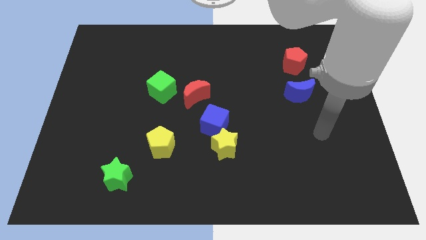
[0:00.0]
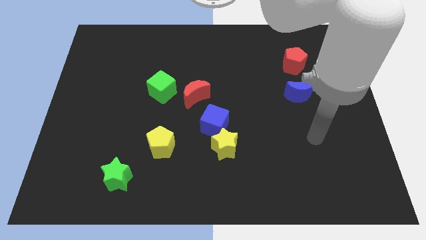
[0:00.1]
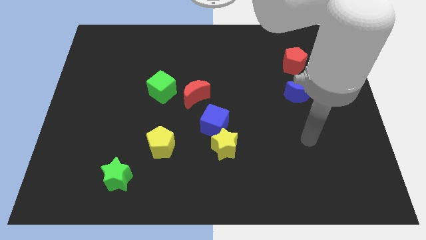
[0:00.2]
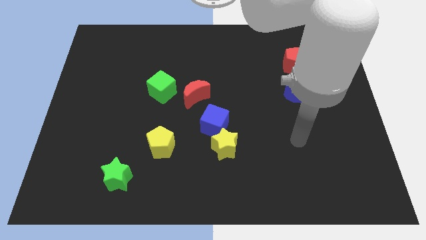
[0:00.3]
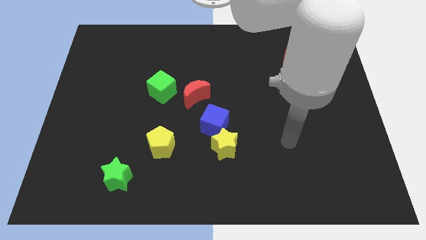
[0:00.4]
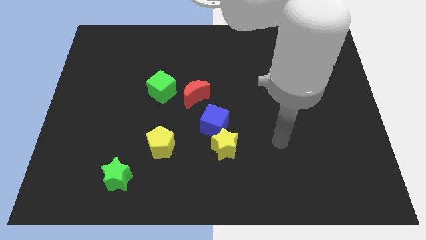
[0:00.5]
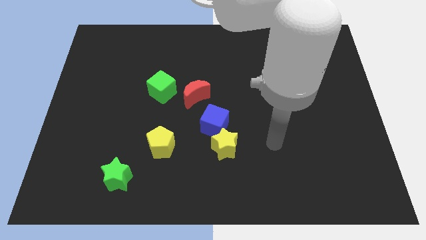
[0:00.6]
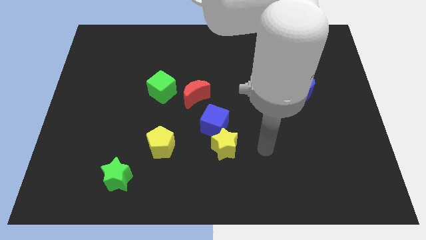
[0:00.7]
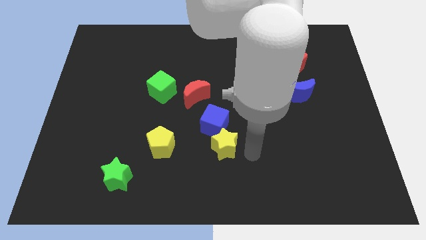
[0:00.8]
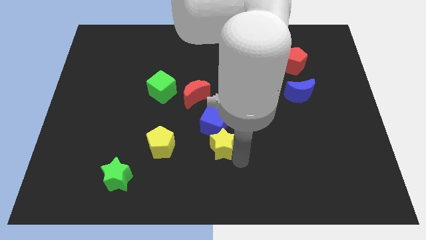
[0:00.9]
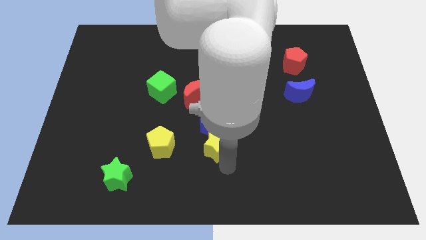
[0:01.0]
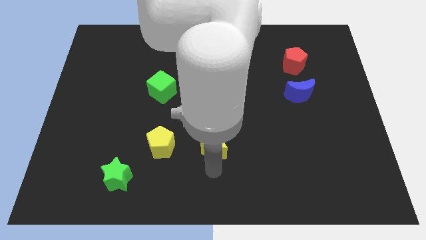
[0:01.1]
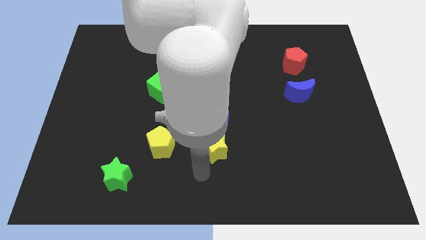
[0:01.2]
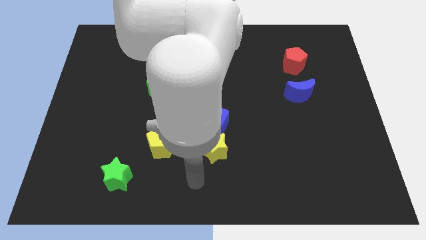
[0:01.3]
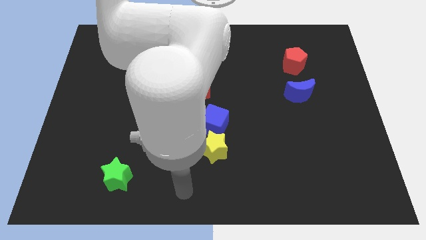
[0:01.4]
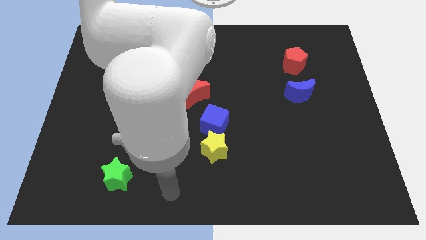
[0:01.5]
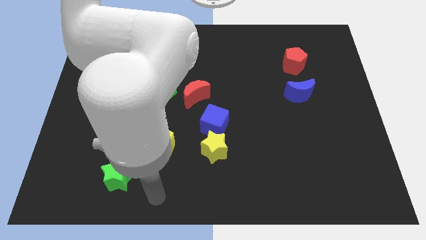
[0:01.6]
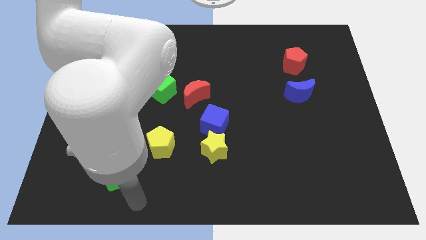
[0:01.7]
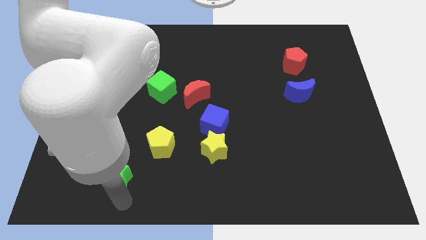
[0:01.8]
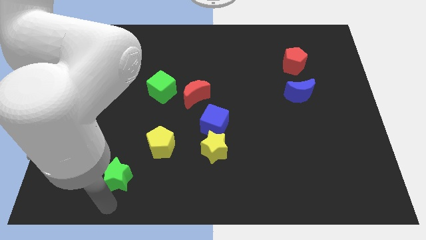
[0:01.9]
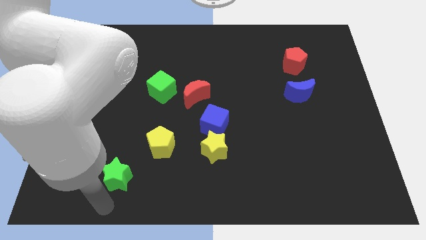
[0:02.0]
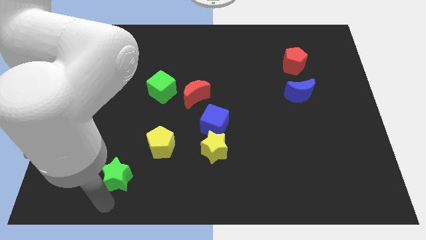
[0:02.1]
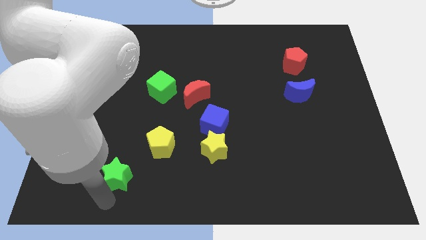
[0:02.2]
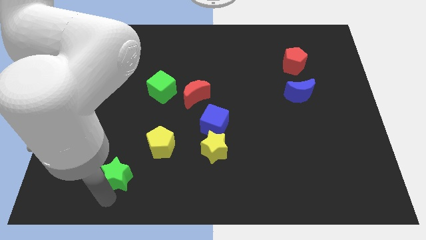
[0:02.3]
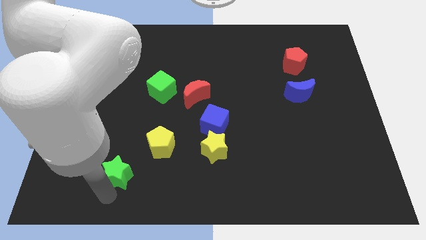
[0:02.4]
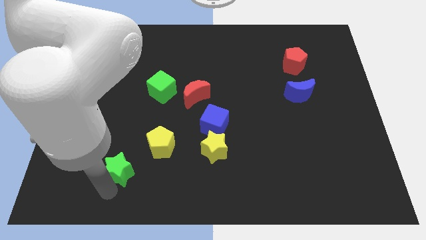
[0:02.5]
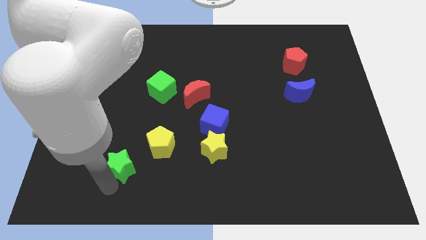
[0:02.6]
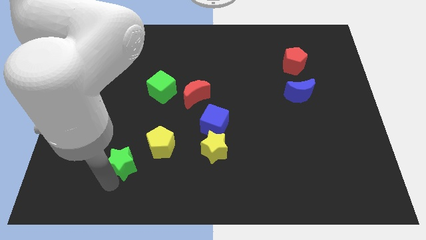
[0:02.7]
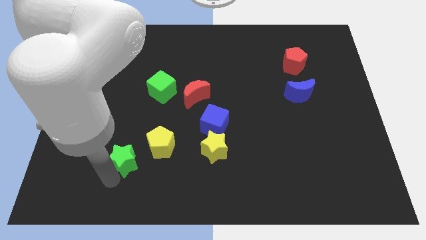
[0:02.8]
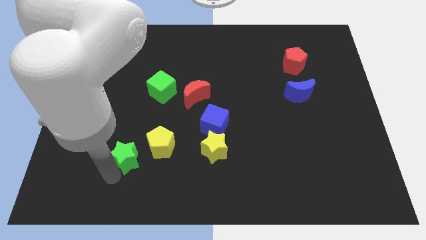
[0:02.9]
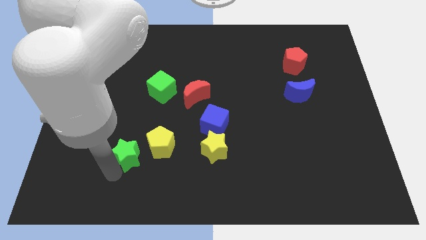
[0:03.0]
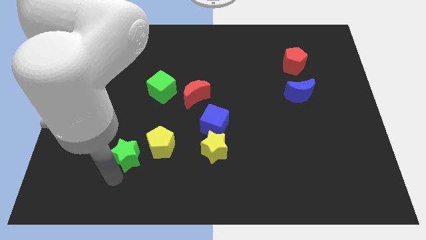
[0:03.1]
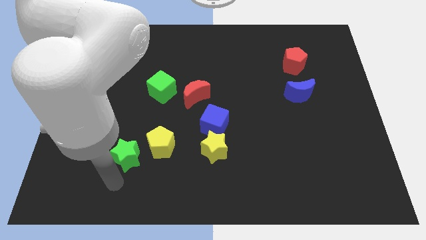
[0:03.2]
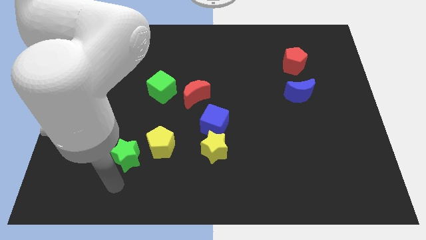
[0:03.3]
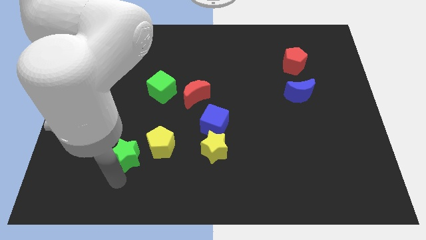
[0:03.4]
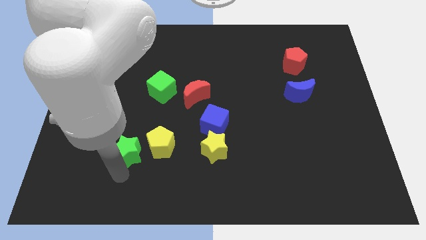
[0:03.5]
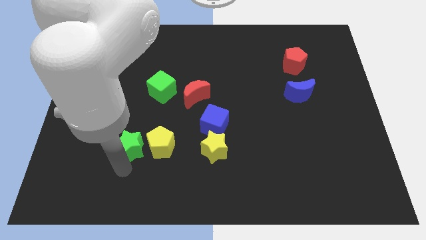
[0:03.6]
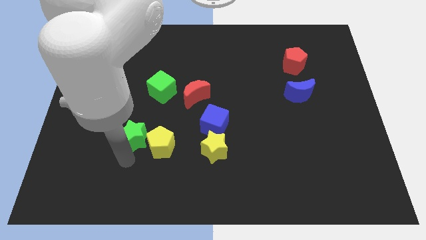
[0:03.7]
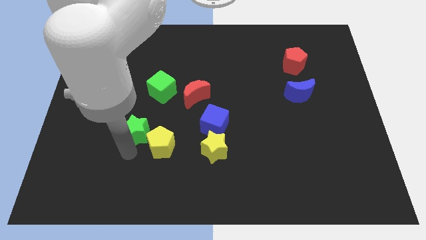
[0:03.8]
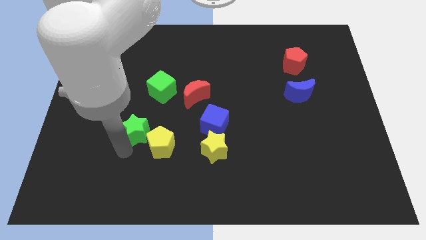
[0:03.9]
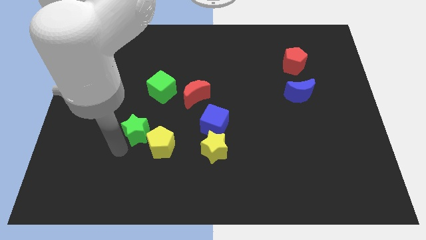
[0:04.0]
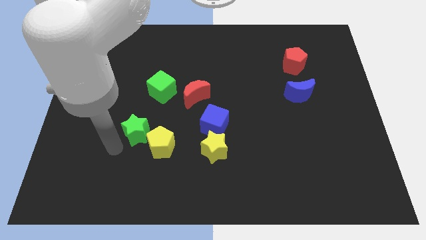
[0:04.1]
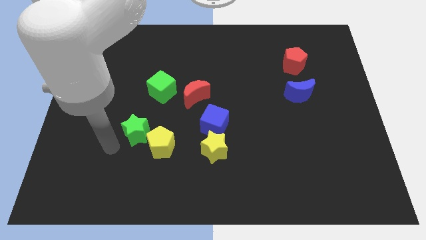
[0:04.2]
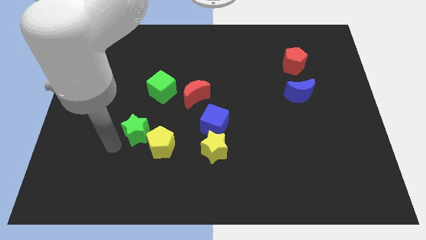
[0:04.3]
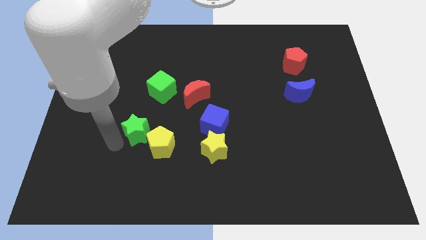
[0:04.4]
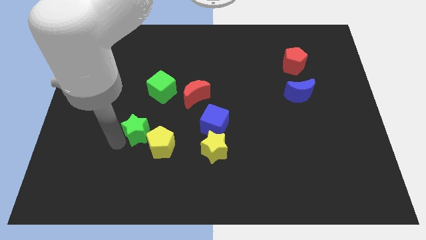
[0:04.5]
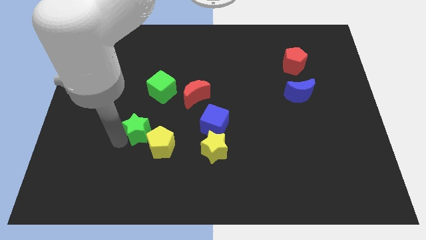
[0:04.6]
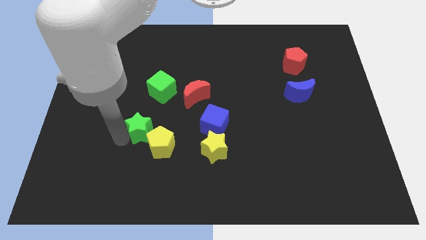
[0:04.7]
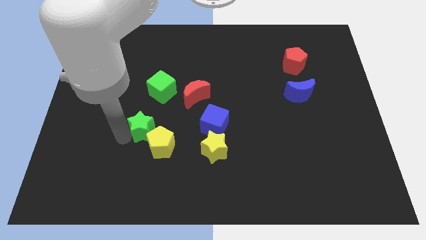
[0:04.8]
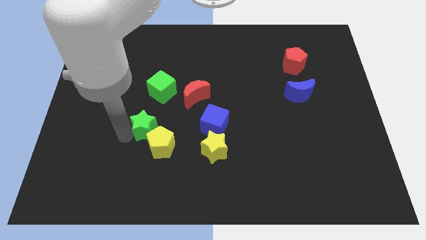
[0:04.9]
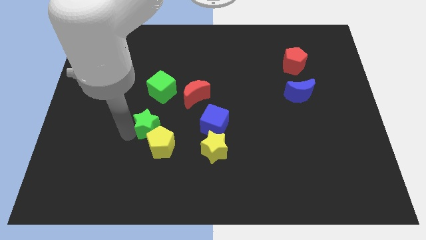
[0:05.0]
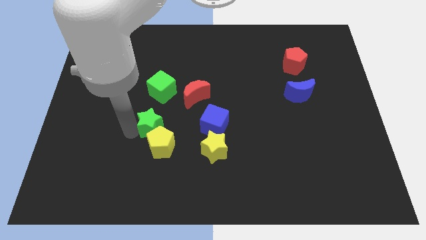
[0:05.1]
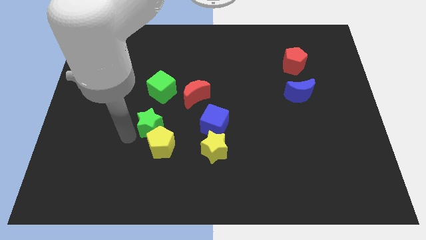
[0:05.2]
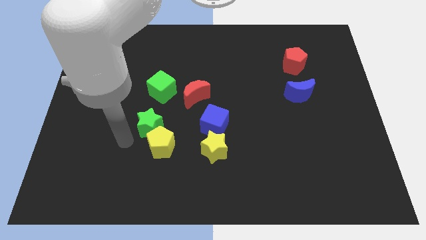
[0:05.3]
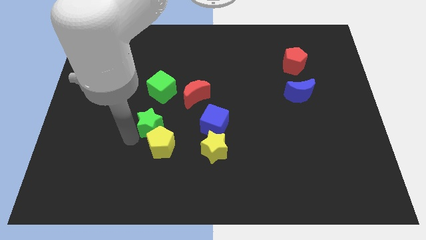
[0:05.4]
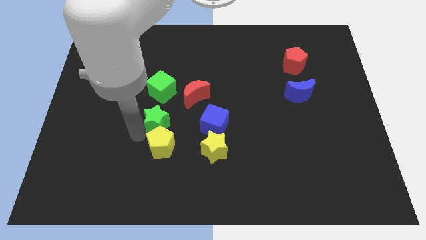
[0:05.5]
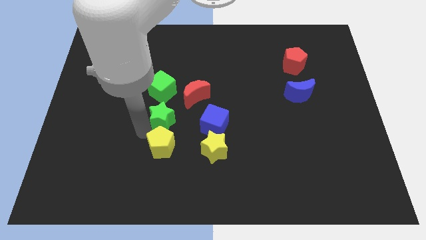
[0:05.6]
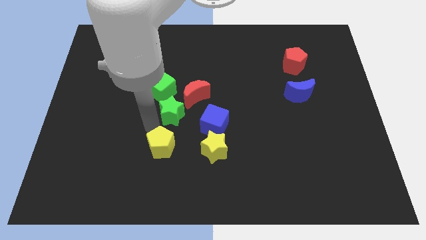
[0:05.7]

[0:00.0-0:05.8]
move the green star to the middle of the board

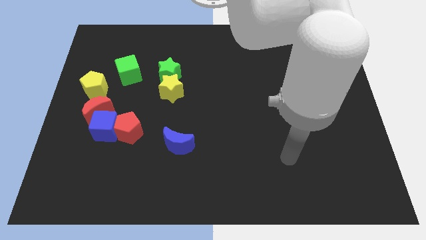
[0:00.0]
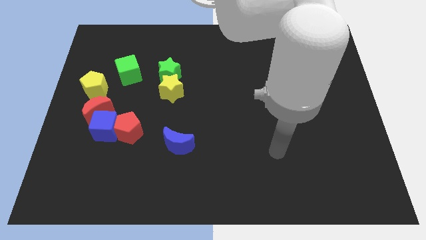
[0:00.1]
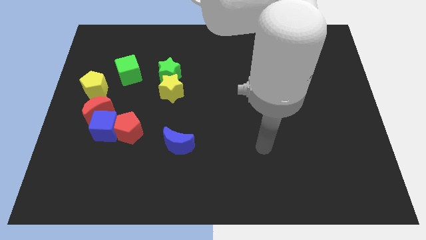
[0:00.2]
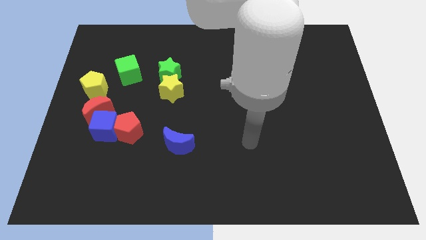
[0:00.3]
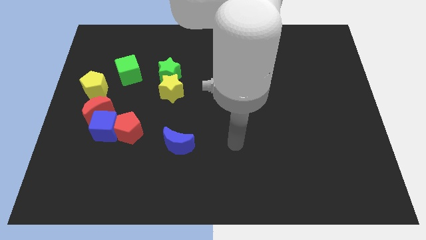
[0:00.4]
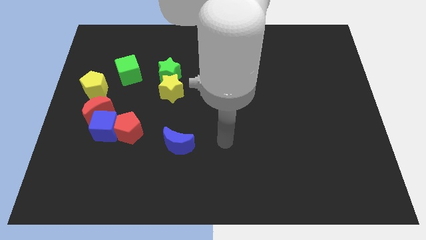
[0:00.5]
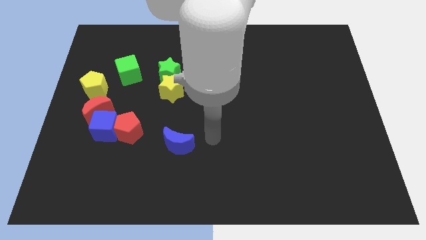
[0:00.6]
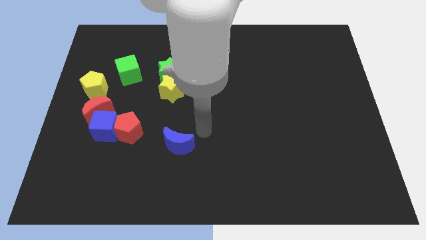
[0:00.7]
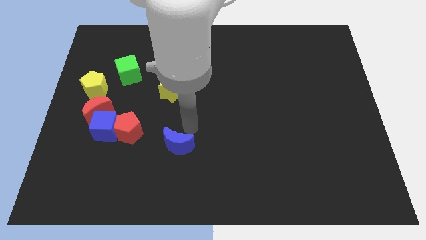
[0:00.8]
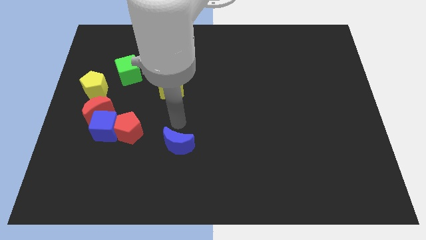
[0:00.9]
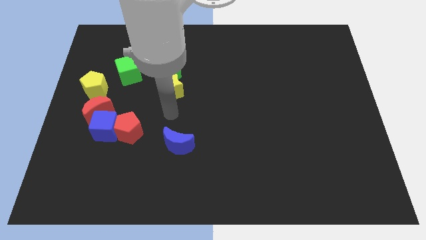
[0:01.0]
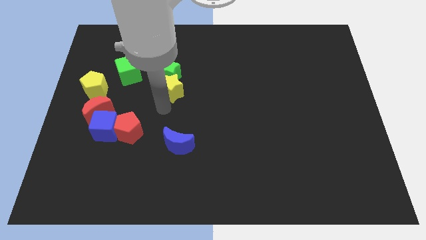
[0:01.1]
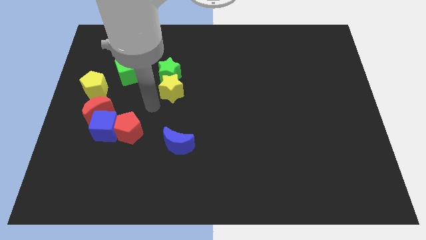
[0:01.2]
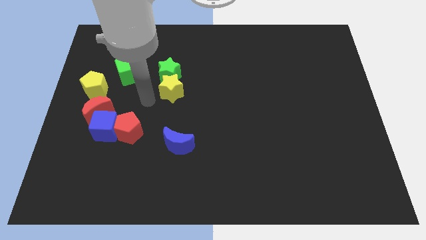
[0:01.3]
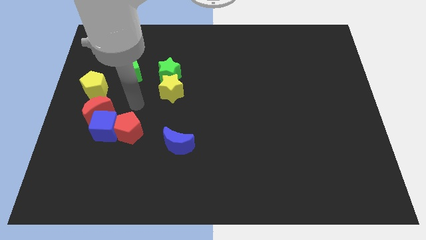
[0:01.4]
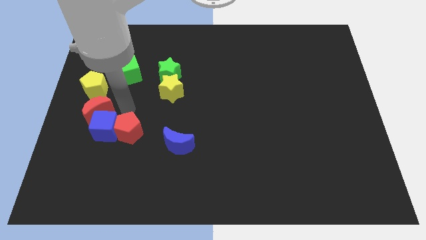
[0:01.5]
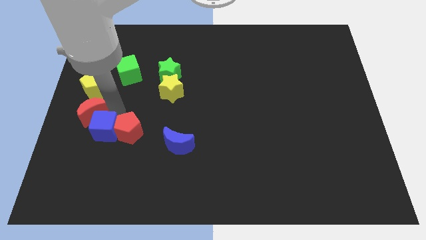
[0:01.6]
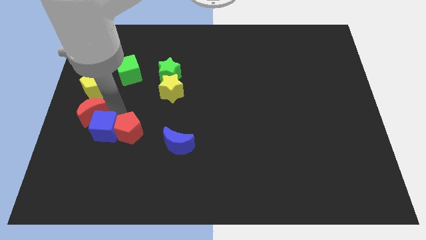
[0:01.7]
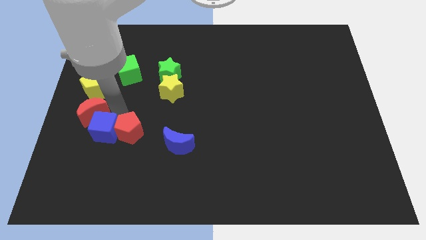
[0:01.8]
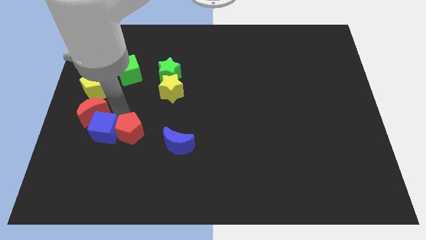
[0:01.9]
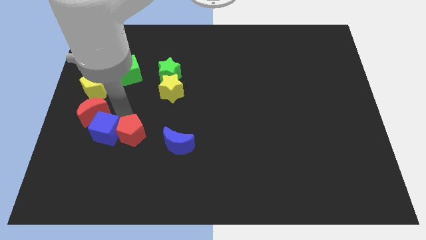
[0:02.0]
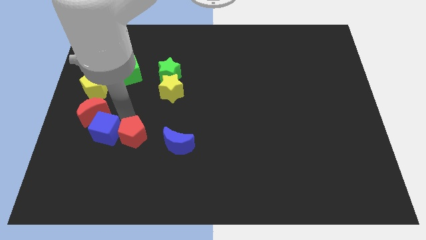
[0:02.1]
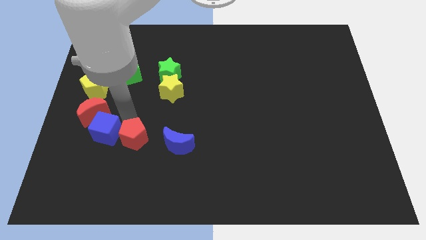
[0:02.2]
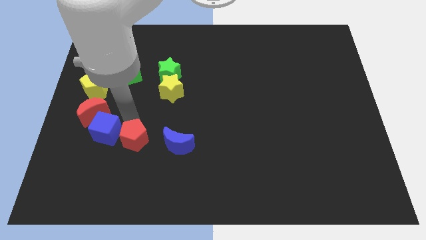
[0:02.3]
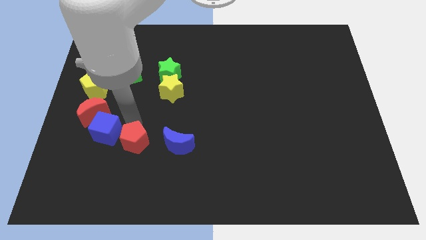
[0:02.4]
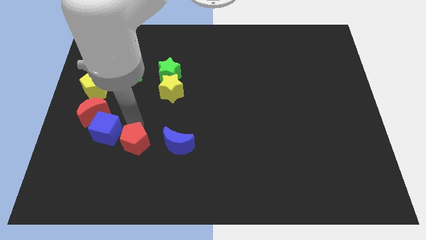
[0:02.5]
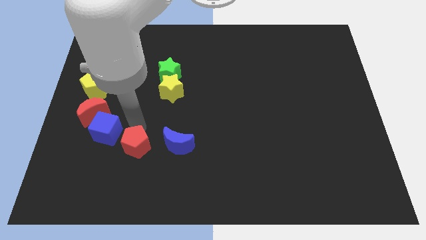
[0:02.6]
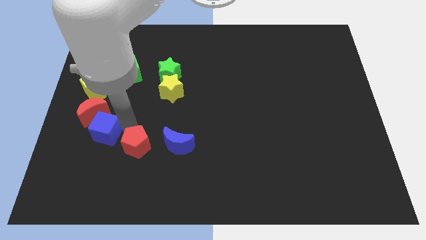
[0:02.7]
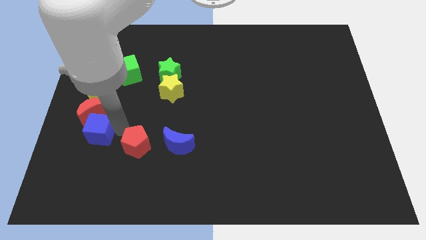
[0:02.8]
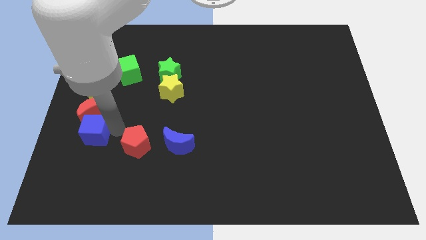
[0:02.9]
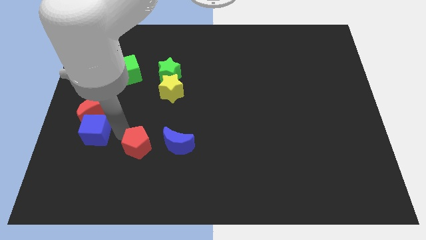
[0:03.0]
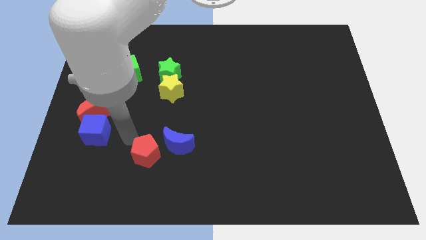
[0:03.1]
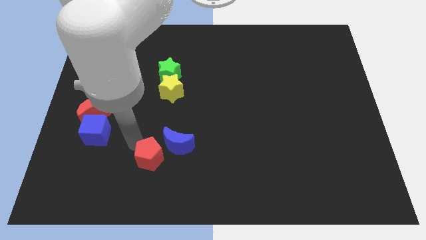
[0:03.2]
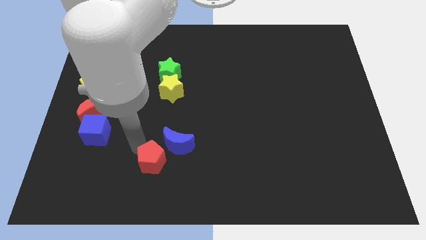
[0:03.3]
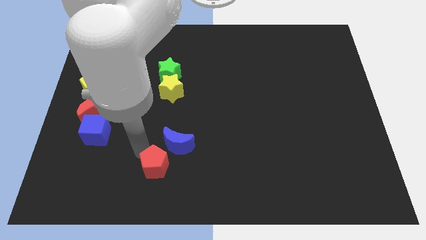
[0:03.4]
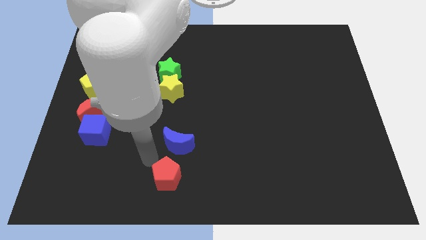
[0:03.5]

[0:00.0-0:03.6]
push the red pentagon to the bottom
